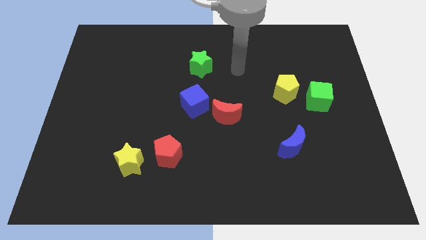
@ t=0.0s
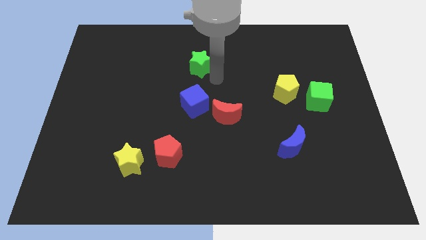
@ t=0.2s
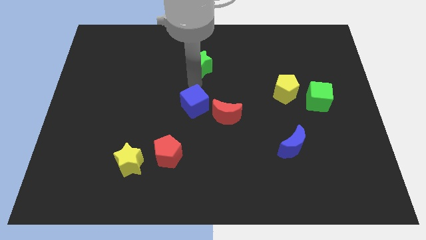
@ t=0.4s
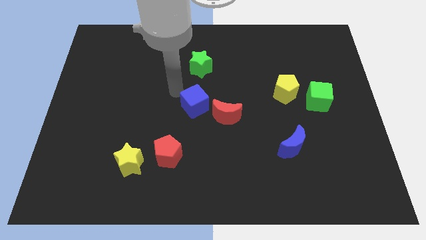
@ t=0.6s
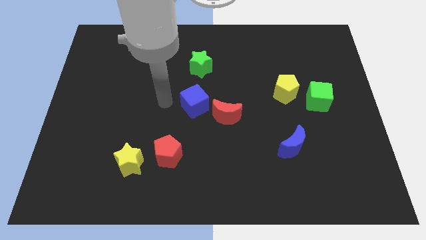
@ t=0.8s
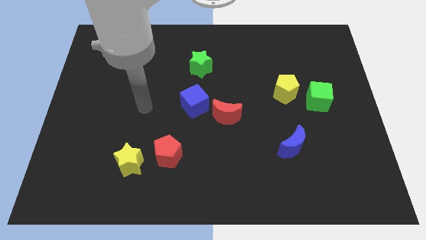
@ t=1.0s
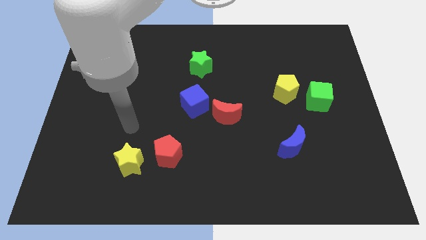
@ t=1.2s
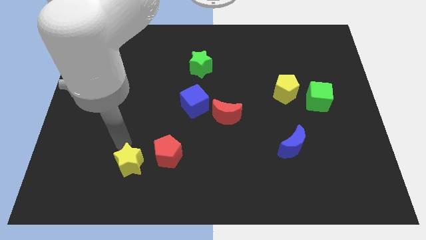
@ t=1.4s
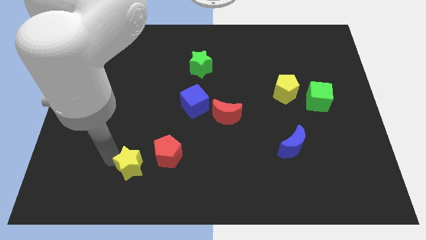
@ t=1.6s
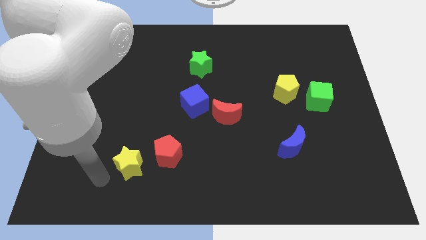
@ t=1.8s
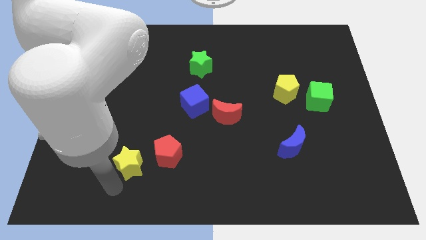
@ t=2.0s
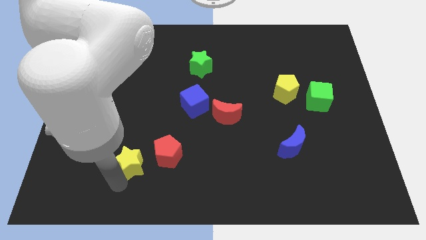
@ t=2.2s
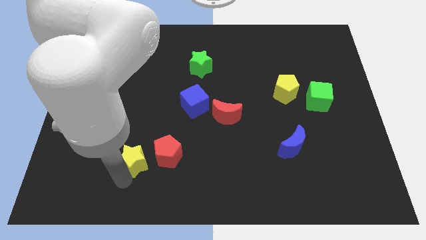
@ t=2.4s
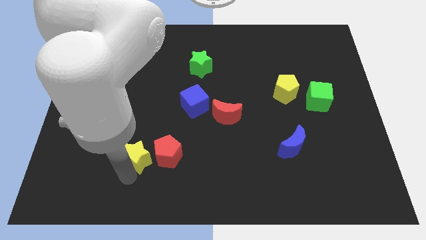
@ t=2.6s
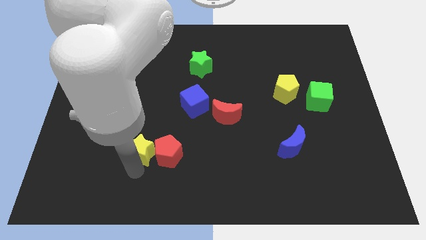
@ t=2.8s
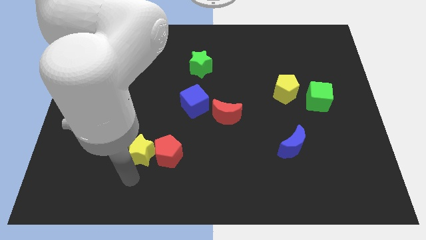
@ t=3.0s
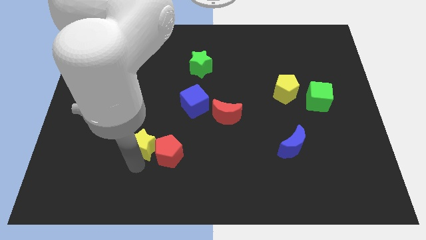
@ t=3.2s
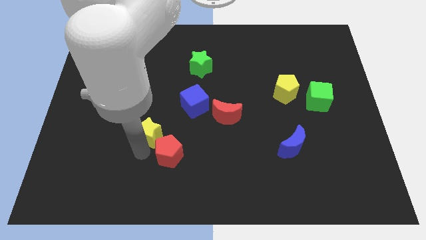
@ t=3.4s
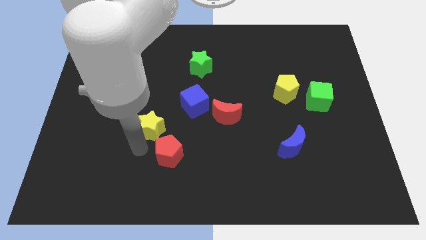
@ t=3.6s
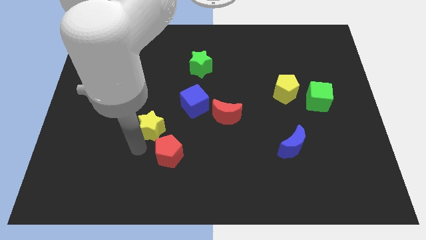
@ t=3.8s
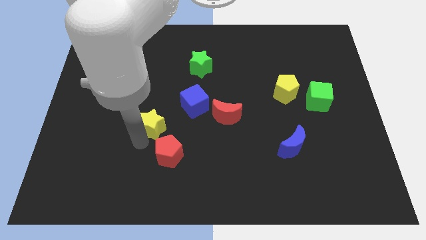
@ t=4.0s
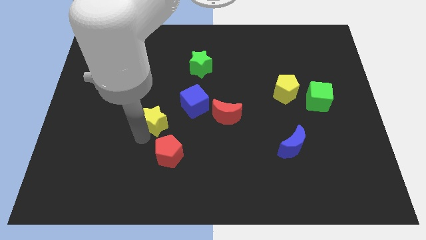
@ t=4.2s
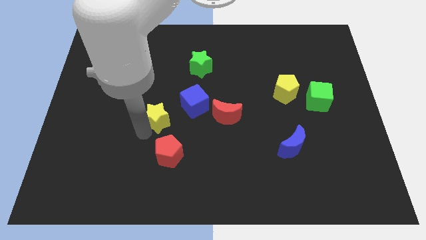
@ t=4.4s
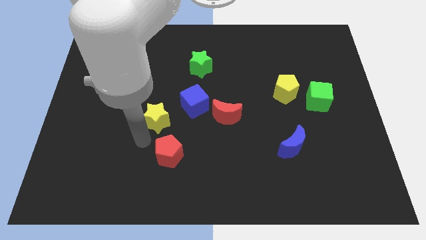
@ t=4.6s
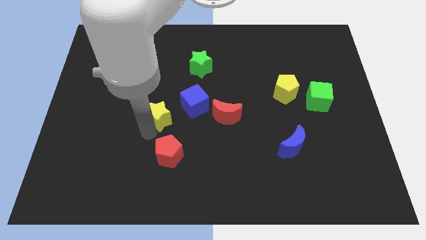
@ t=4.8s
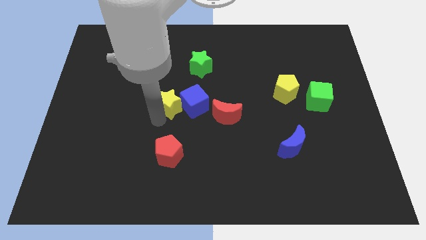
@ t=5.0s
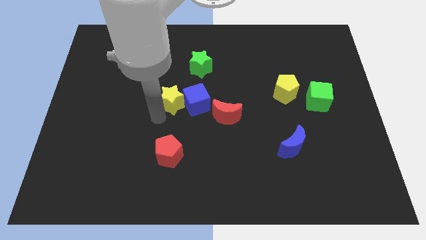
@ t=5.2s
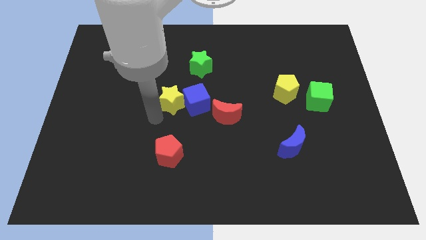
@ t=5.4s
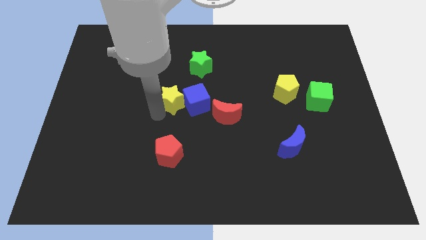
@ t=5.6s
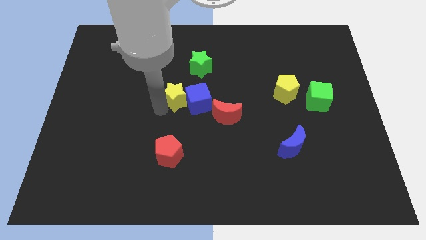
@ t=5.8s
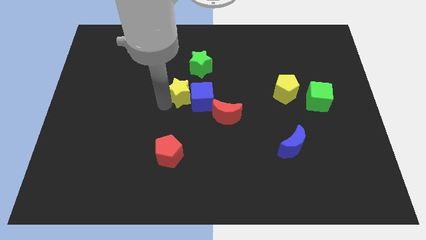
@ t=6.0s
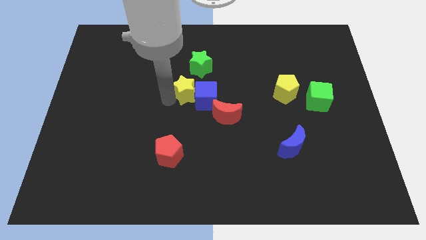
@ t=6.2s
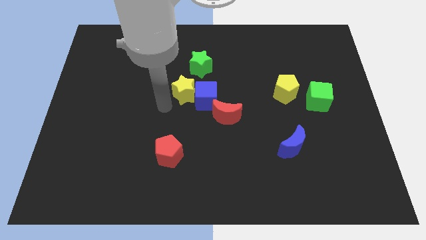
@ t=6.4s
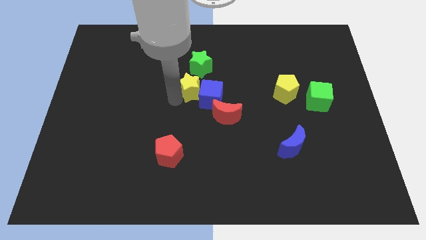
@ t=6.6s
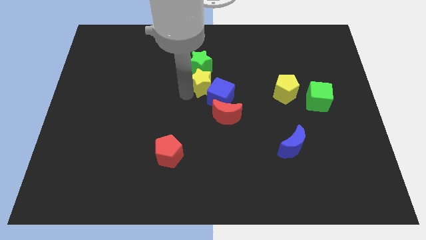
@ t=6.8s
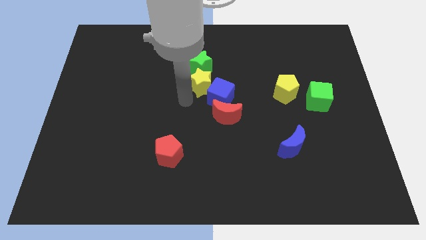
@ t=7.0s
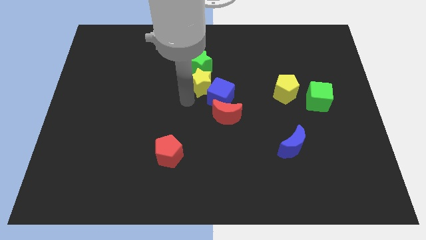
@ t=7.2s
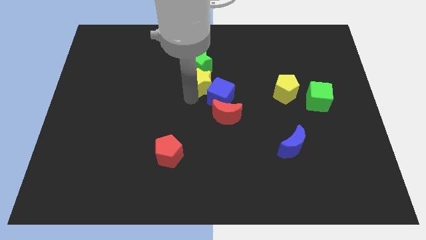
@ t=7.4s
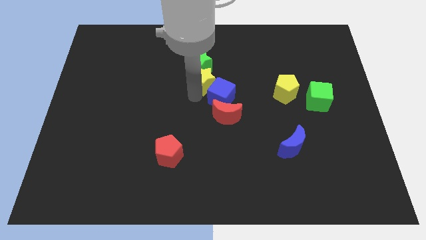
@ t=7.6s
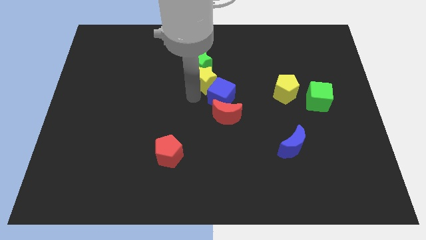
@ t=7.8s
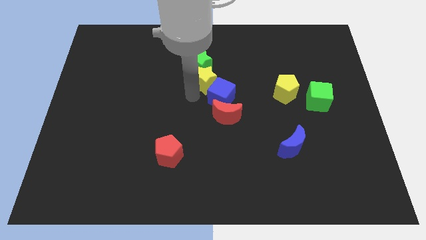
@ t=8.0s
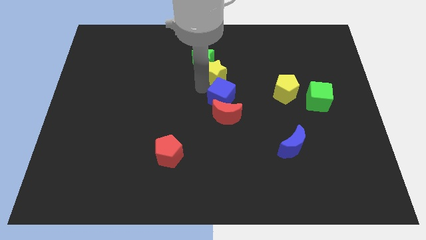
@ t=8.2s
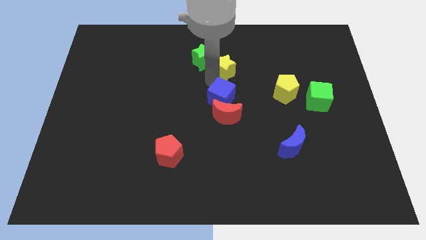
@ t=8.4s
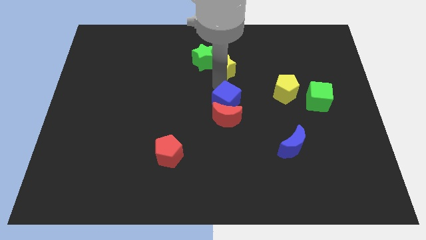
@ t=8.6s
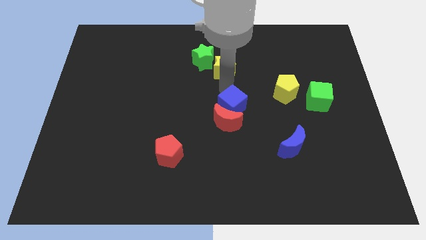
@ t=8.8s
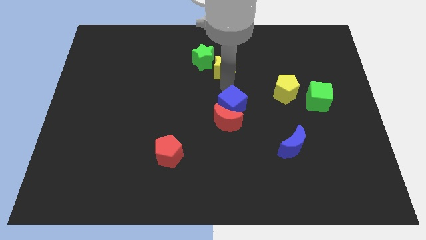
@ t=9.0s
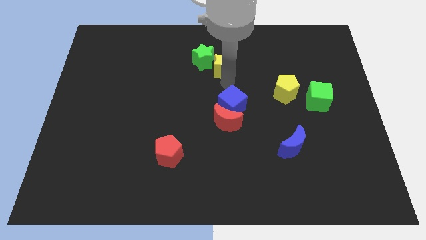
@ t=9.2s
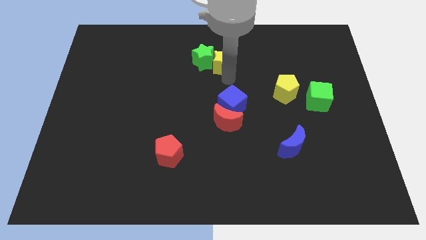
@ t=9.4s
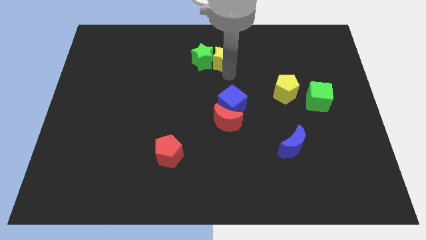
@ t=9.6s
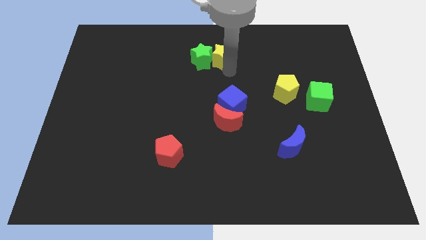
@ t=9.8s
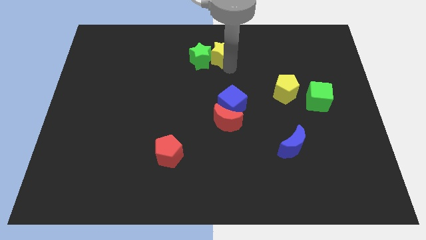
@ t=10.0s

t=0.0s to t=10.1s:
slide the yellow star to the top side

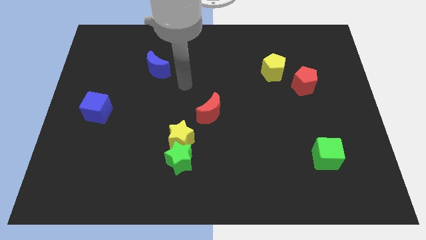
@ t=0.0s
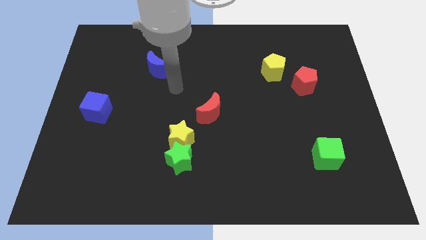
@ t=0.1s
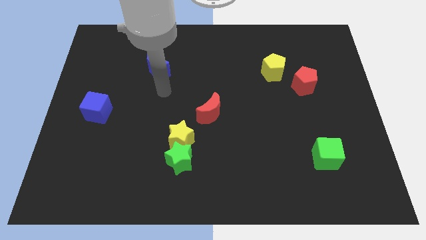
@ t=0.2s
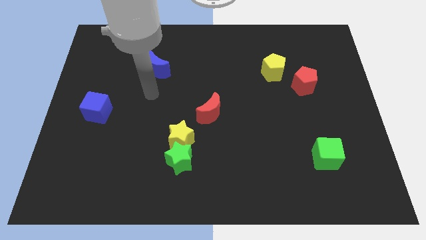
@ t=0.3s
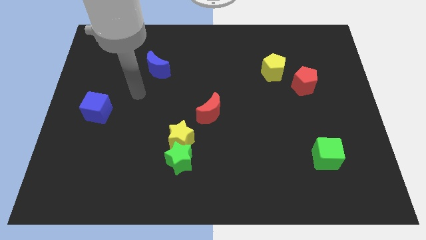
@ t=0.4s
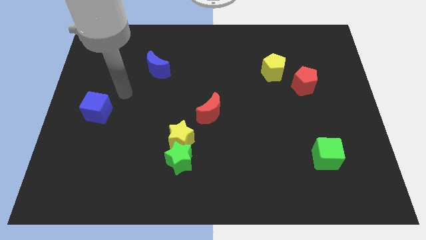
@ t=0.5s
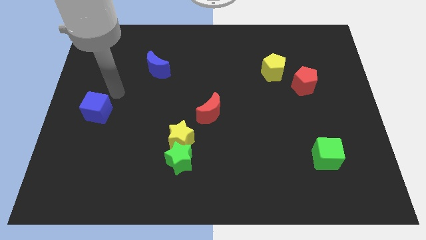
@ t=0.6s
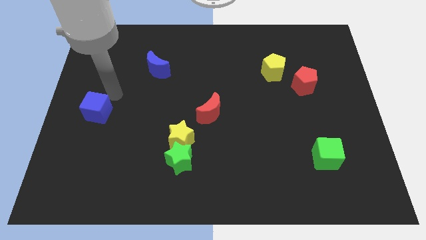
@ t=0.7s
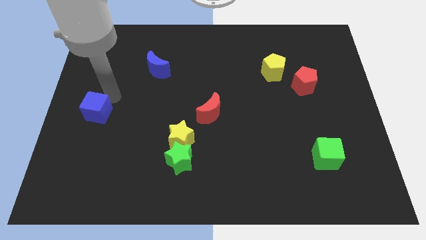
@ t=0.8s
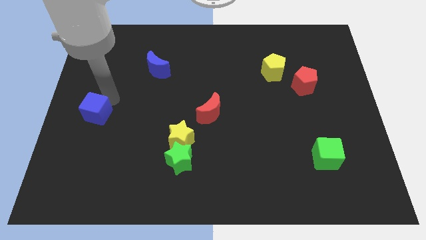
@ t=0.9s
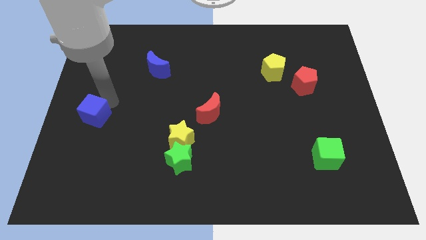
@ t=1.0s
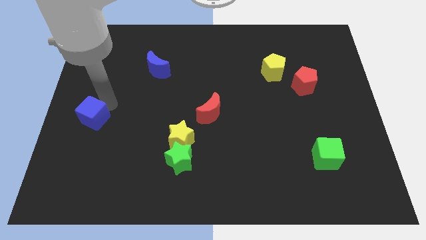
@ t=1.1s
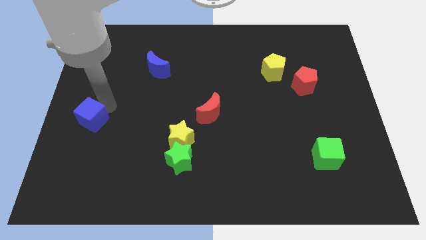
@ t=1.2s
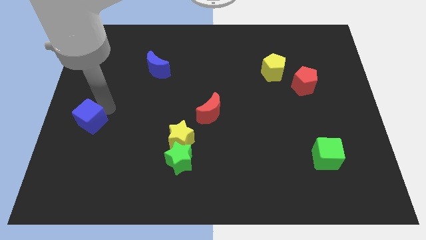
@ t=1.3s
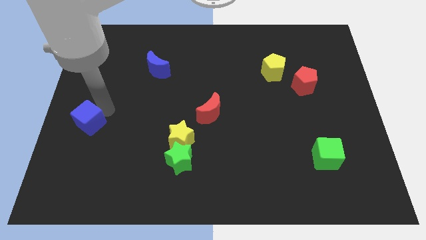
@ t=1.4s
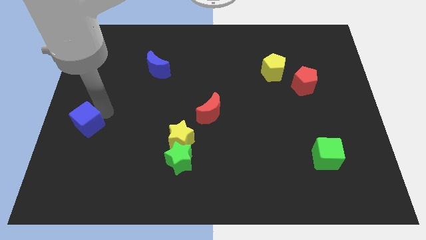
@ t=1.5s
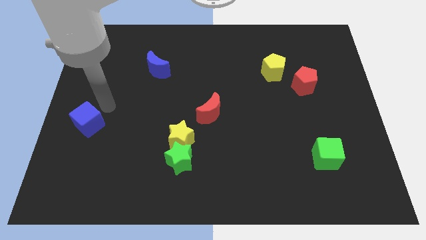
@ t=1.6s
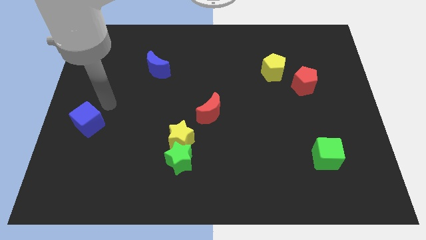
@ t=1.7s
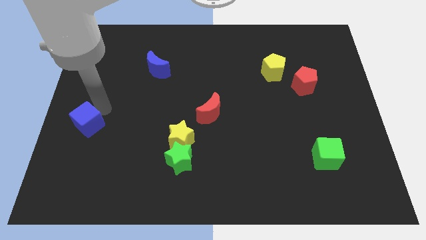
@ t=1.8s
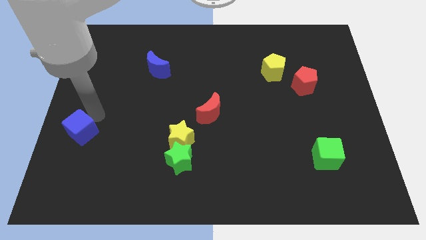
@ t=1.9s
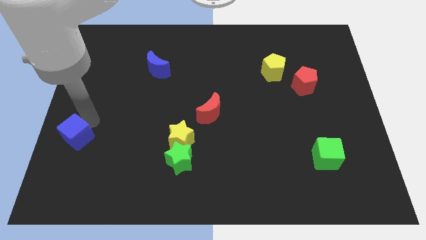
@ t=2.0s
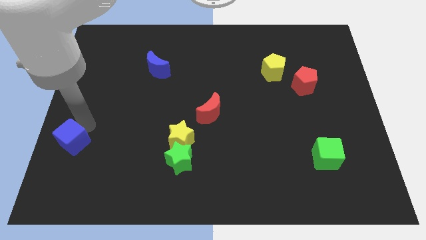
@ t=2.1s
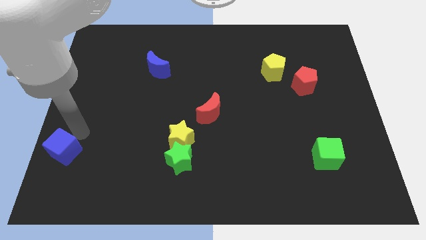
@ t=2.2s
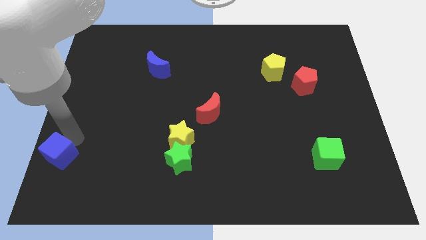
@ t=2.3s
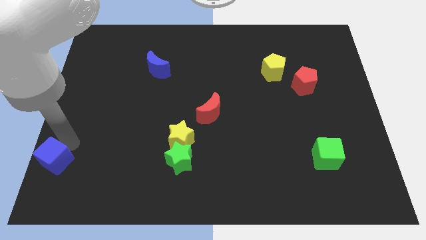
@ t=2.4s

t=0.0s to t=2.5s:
put the blue cube to the bottom left corner
